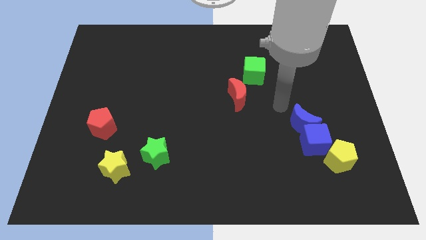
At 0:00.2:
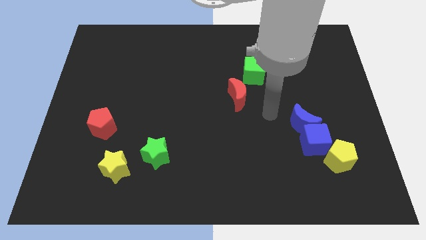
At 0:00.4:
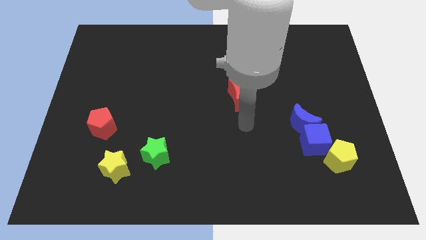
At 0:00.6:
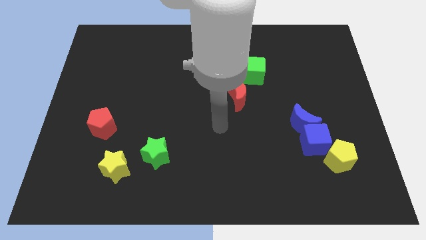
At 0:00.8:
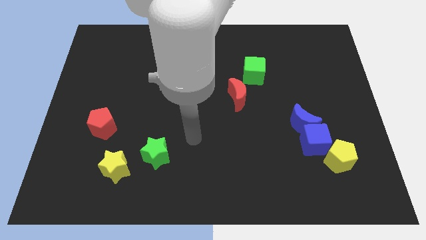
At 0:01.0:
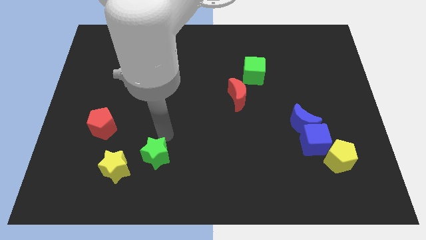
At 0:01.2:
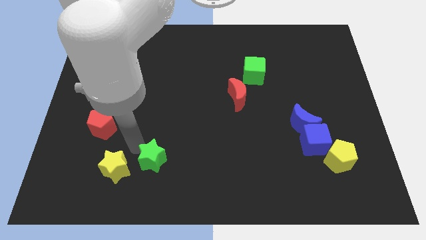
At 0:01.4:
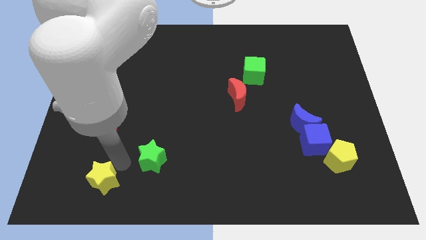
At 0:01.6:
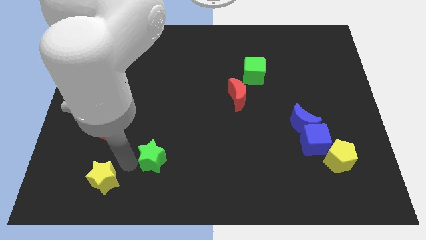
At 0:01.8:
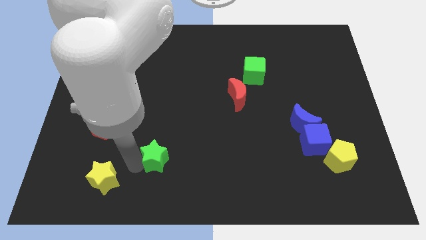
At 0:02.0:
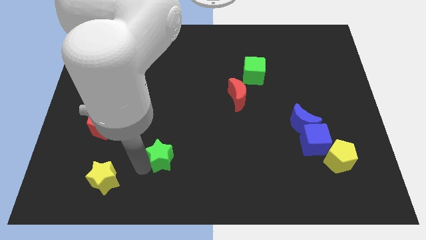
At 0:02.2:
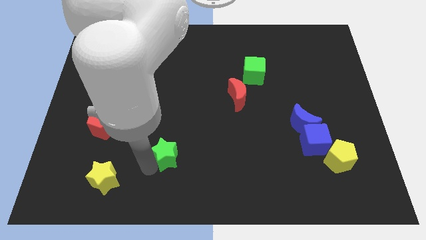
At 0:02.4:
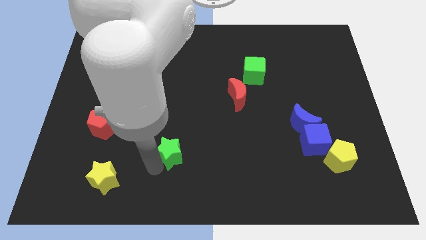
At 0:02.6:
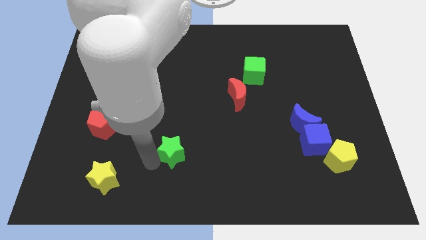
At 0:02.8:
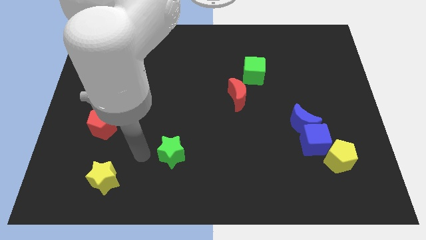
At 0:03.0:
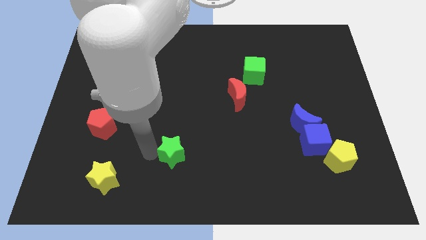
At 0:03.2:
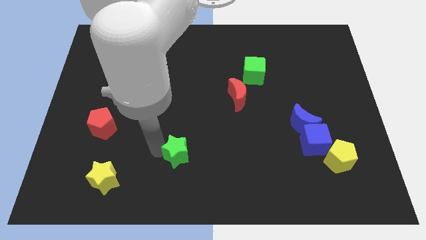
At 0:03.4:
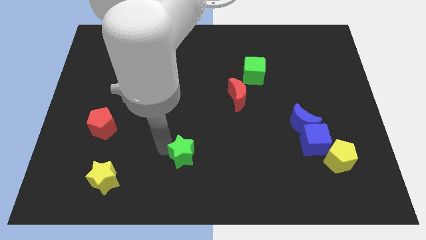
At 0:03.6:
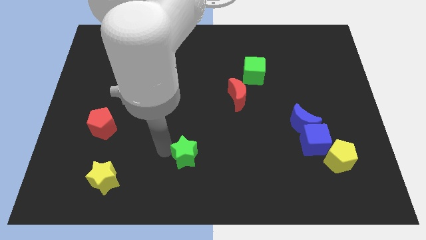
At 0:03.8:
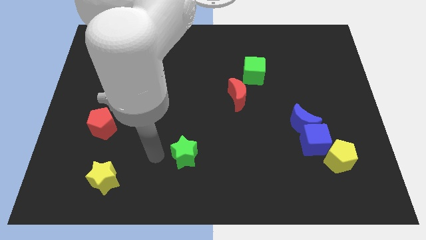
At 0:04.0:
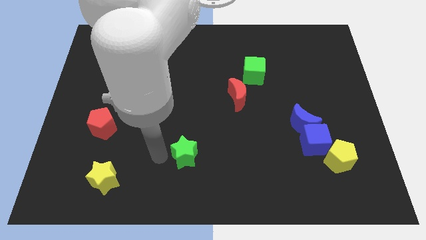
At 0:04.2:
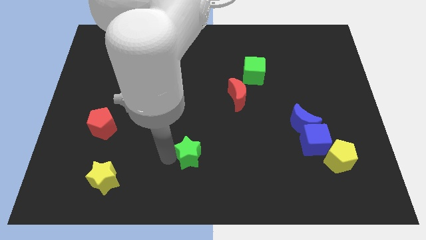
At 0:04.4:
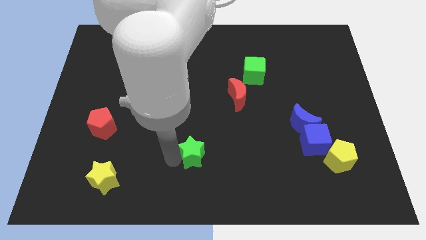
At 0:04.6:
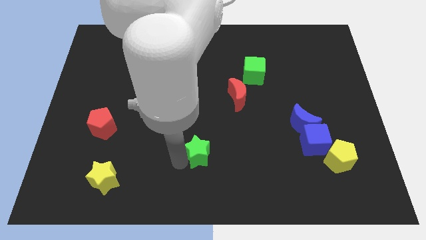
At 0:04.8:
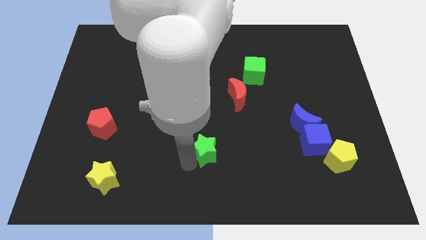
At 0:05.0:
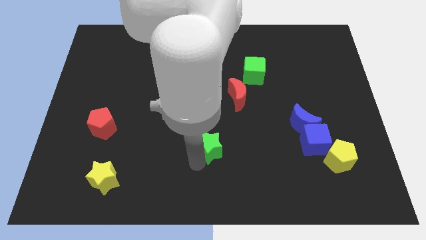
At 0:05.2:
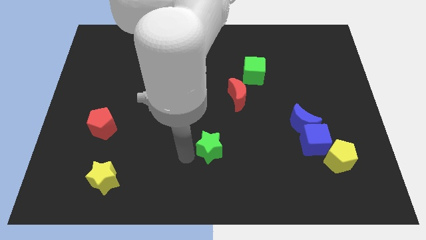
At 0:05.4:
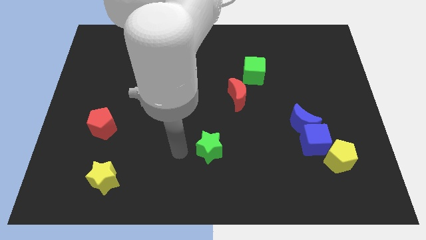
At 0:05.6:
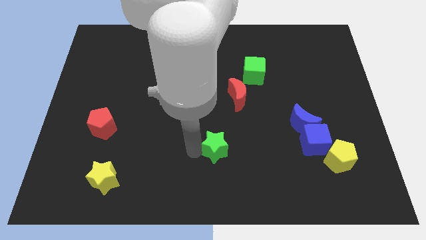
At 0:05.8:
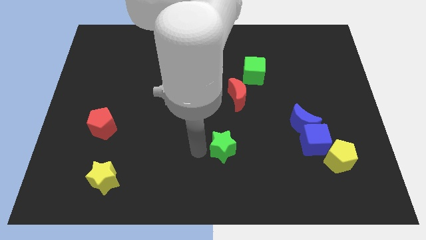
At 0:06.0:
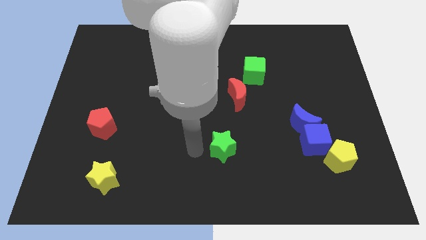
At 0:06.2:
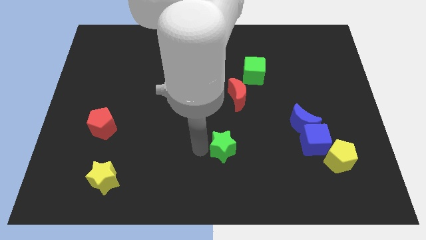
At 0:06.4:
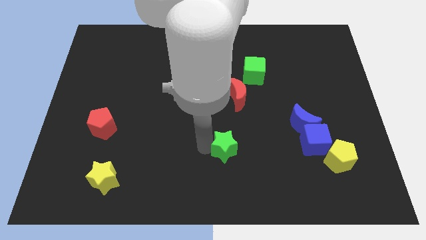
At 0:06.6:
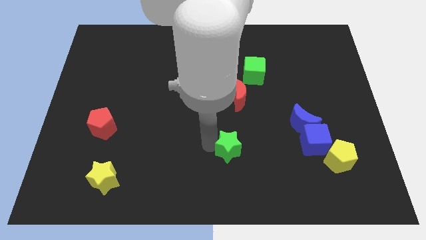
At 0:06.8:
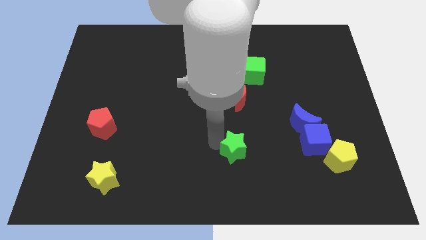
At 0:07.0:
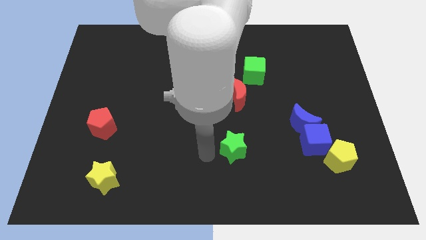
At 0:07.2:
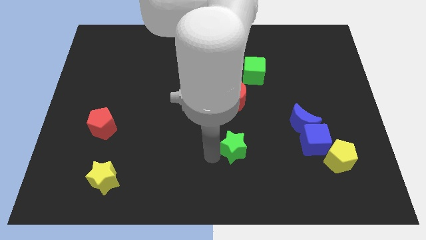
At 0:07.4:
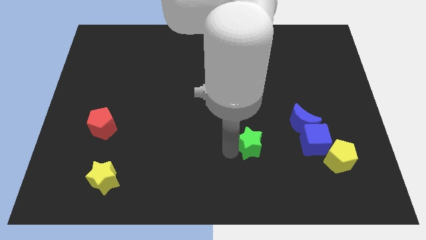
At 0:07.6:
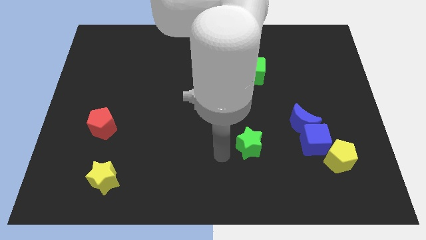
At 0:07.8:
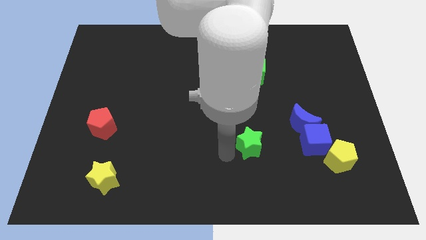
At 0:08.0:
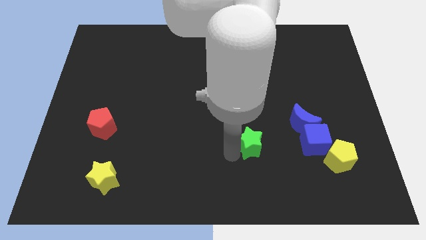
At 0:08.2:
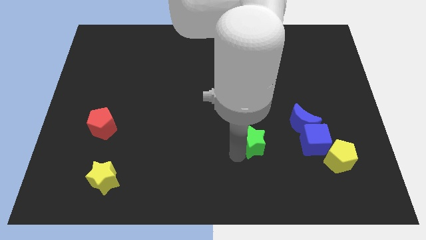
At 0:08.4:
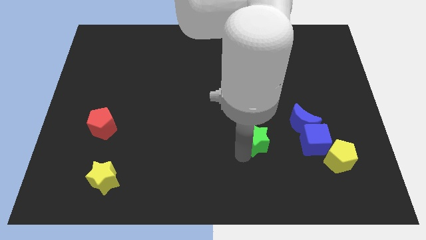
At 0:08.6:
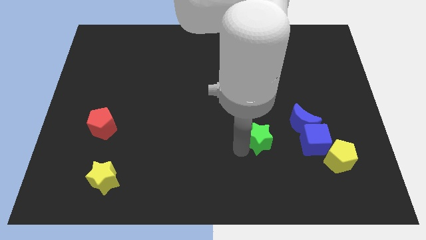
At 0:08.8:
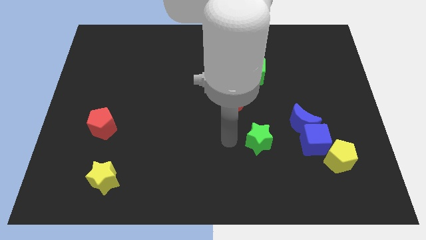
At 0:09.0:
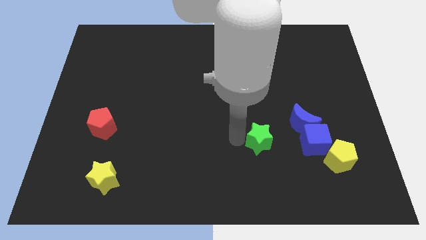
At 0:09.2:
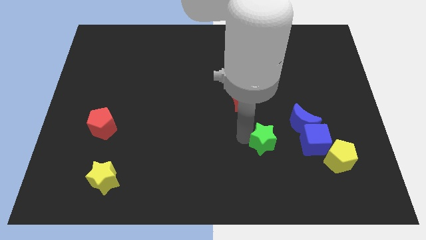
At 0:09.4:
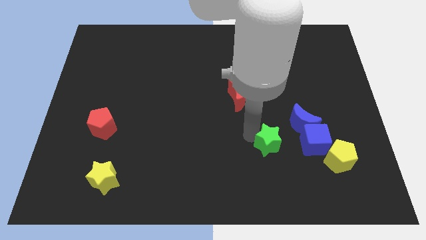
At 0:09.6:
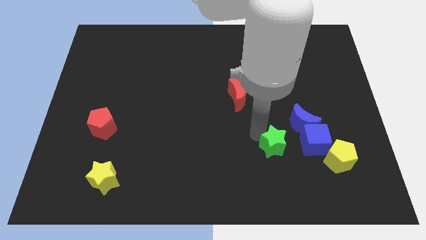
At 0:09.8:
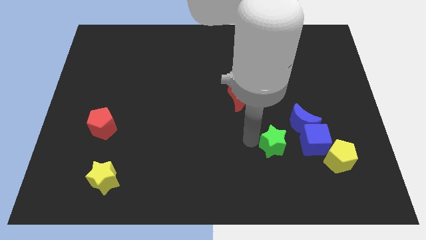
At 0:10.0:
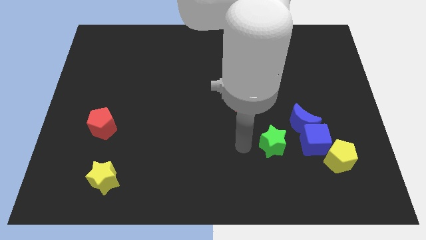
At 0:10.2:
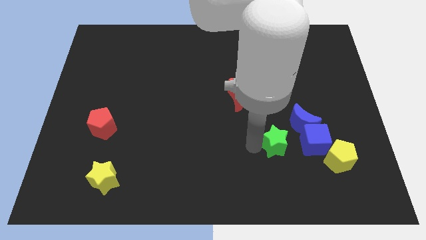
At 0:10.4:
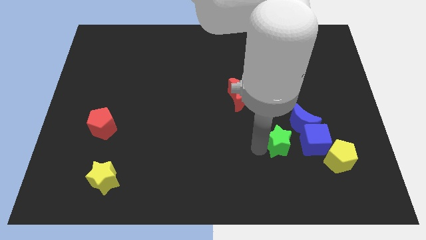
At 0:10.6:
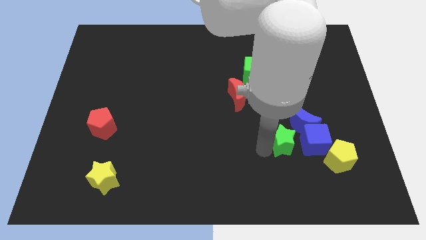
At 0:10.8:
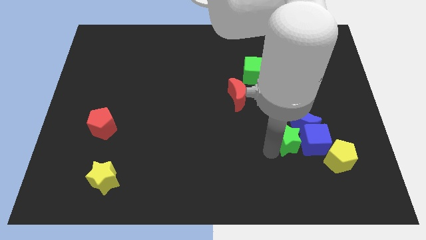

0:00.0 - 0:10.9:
put the green star to the blue cube

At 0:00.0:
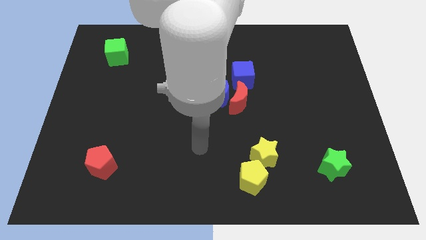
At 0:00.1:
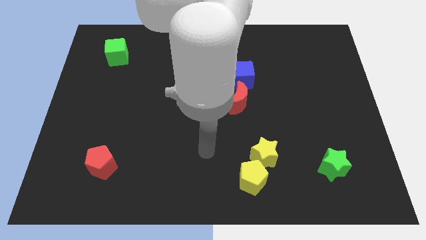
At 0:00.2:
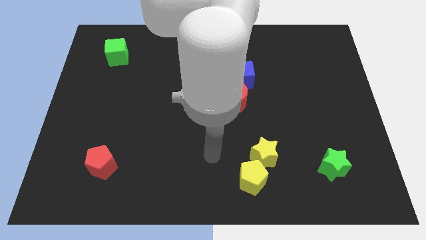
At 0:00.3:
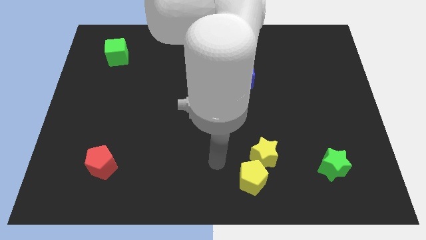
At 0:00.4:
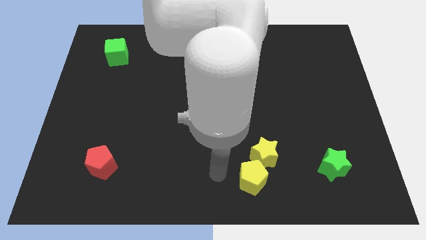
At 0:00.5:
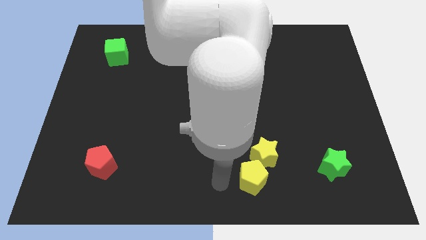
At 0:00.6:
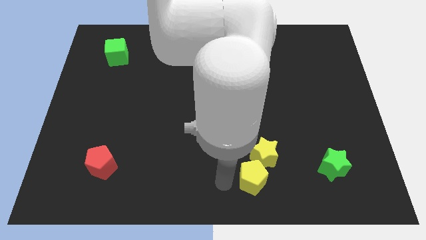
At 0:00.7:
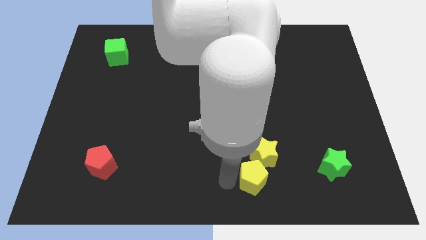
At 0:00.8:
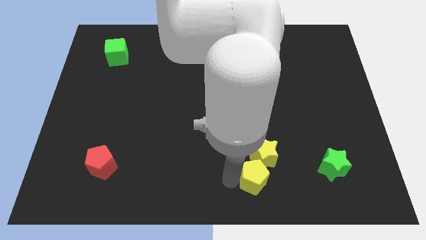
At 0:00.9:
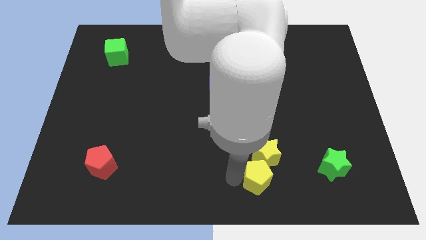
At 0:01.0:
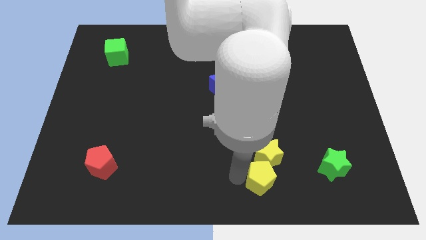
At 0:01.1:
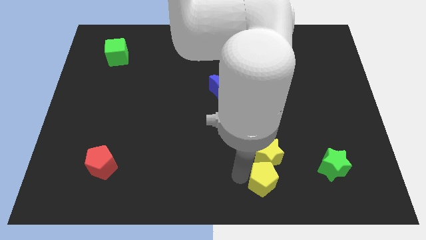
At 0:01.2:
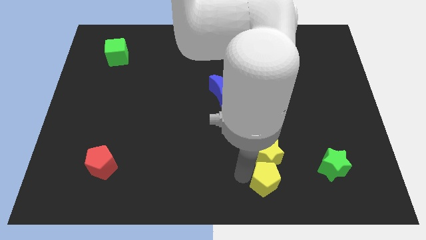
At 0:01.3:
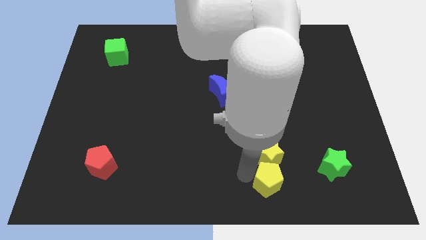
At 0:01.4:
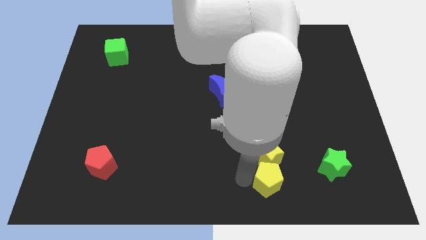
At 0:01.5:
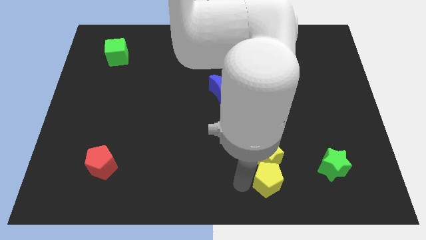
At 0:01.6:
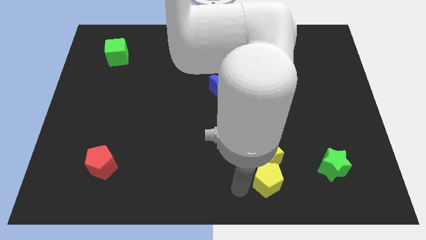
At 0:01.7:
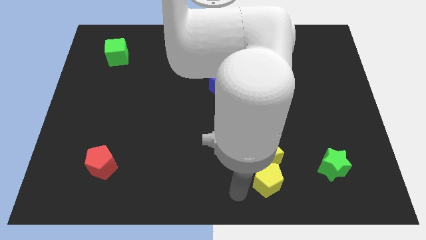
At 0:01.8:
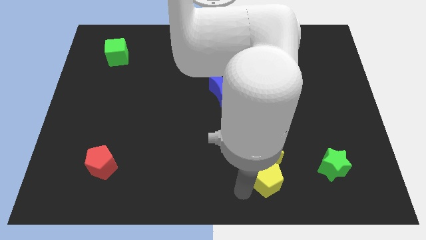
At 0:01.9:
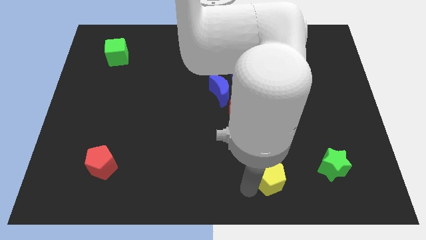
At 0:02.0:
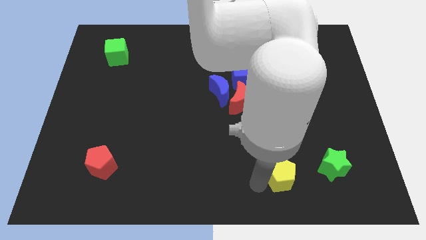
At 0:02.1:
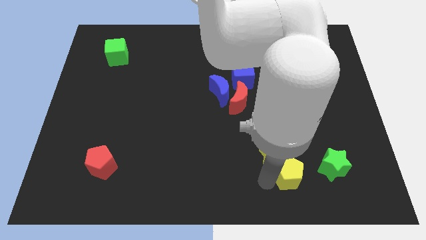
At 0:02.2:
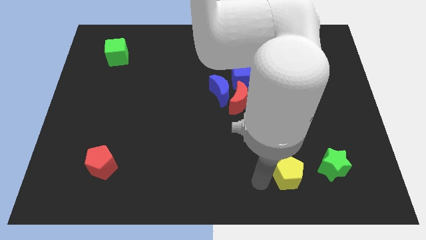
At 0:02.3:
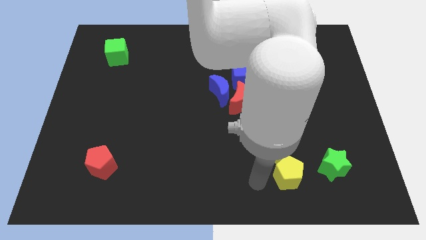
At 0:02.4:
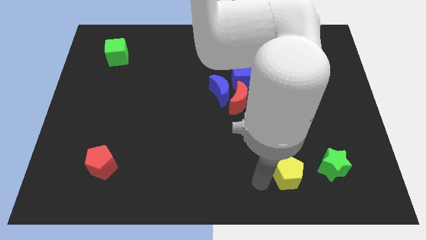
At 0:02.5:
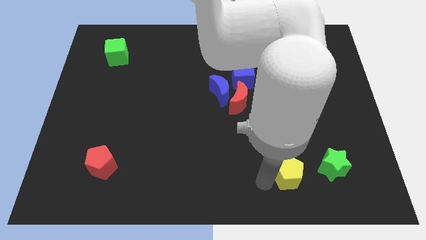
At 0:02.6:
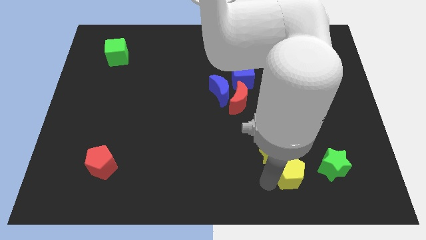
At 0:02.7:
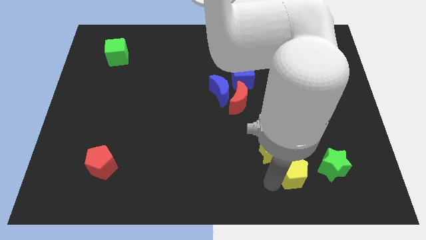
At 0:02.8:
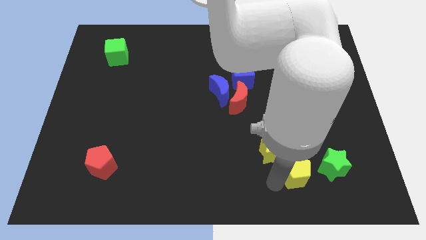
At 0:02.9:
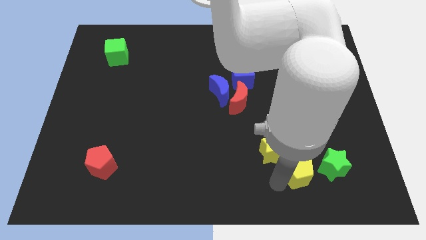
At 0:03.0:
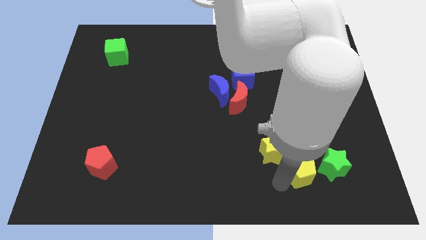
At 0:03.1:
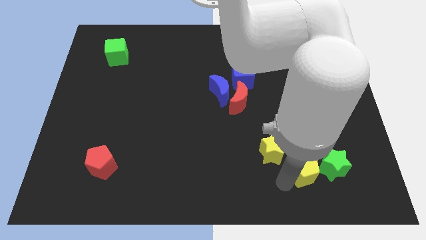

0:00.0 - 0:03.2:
move the yellow pentagon next to the green star
